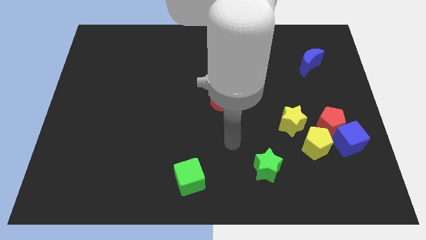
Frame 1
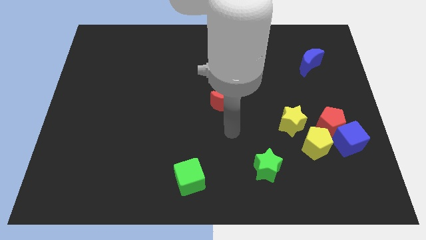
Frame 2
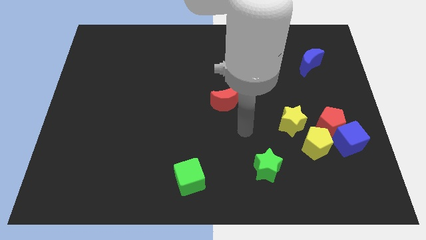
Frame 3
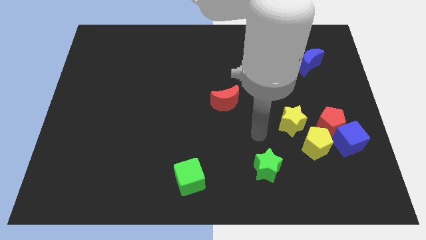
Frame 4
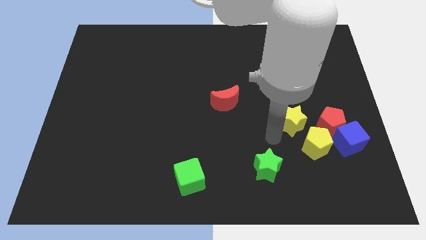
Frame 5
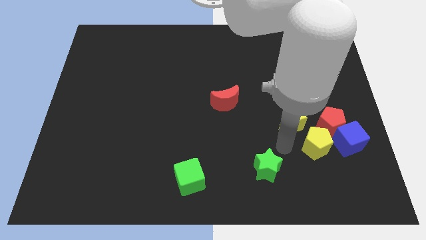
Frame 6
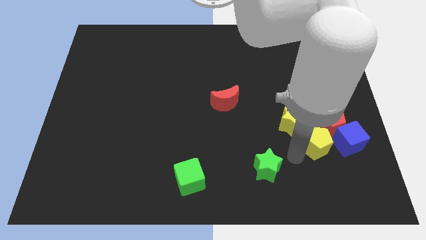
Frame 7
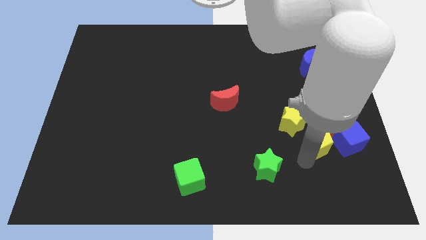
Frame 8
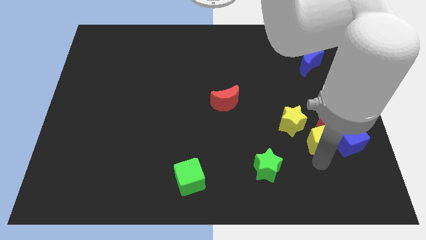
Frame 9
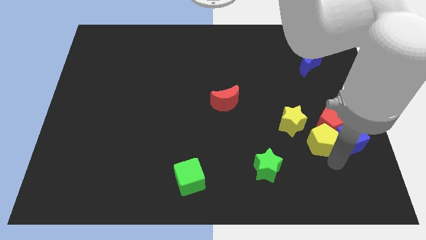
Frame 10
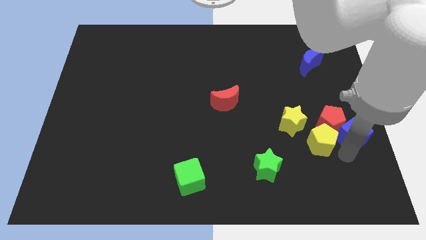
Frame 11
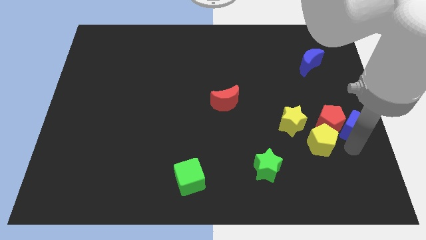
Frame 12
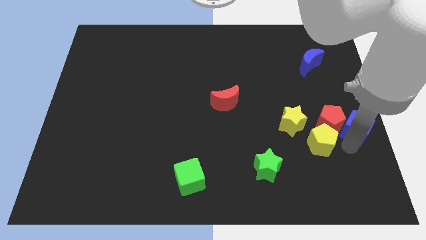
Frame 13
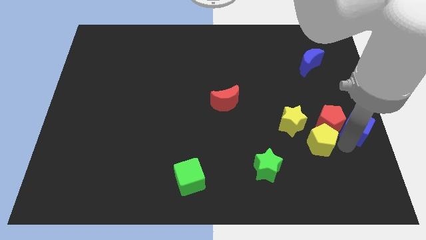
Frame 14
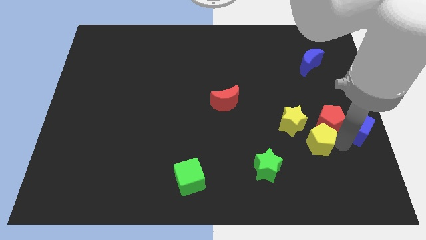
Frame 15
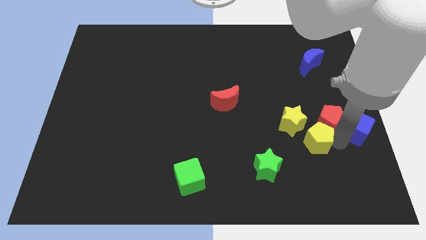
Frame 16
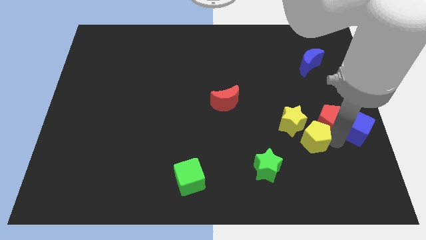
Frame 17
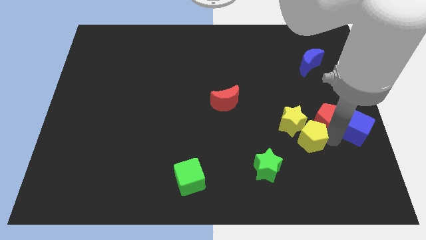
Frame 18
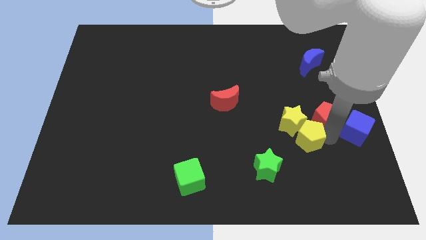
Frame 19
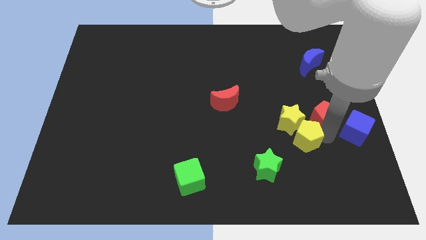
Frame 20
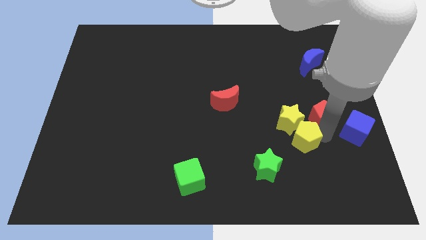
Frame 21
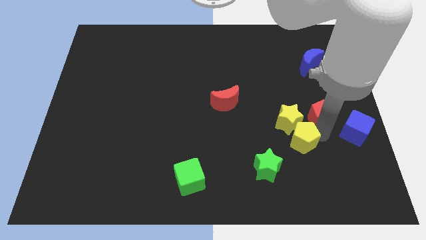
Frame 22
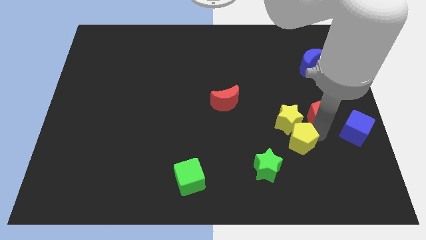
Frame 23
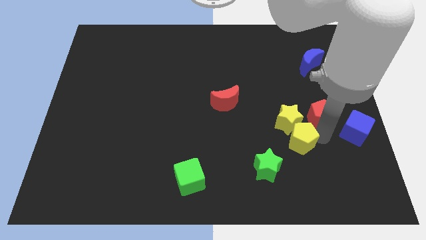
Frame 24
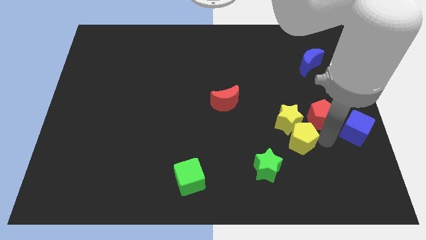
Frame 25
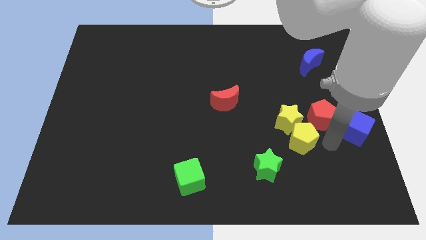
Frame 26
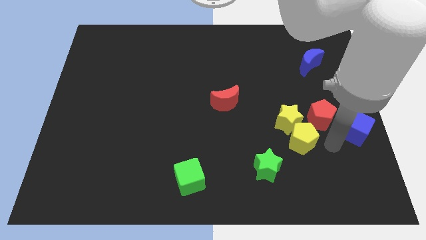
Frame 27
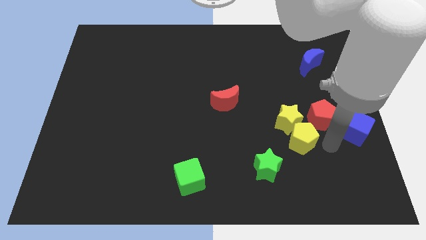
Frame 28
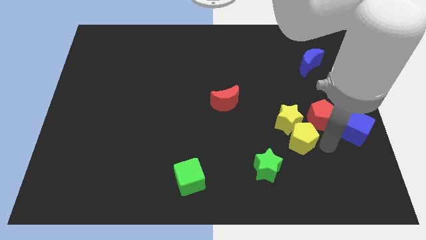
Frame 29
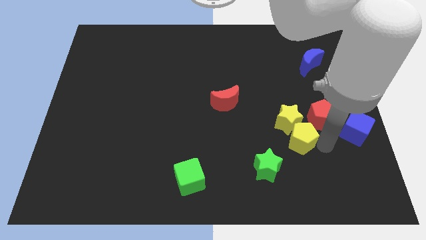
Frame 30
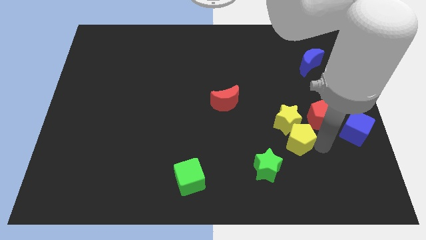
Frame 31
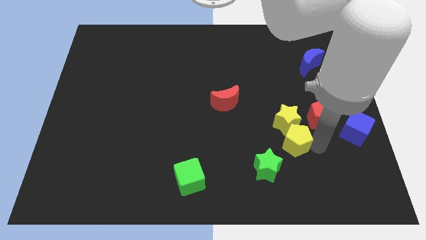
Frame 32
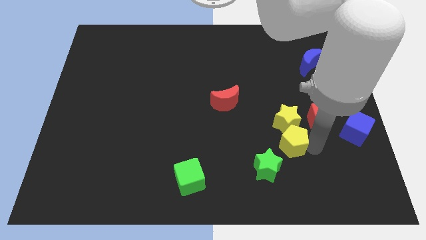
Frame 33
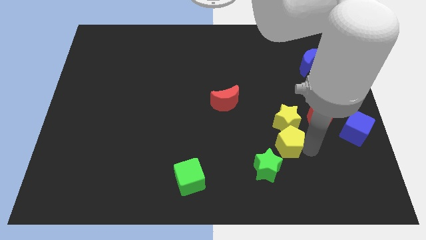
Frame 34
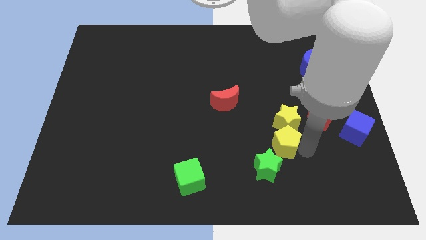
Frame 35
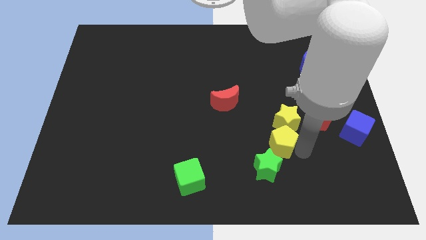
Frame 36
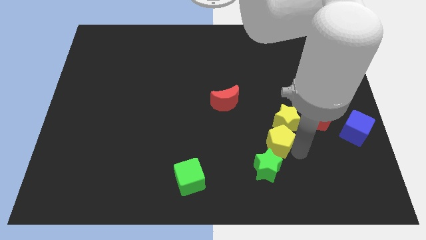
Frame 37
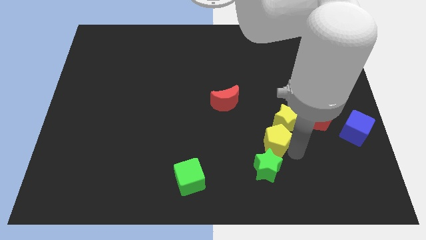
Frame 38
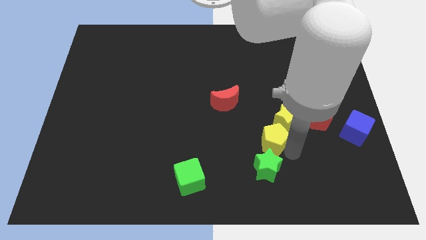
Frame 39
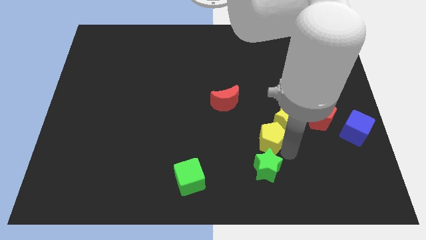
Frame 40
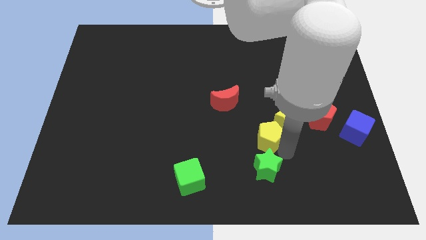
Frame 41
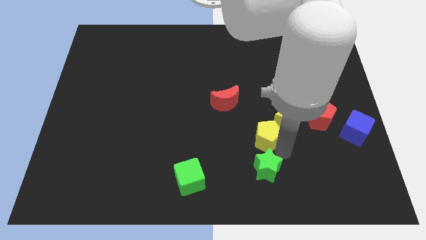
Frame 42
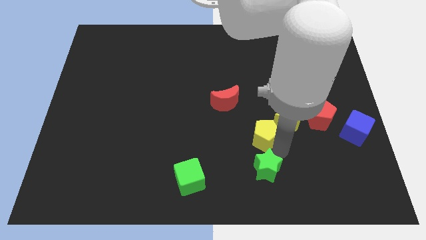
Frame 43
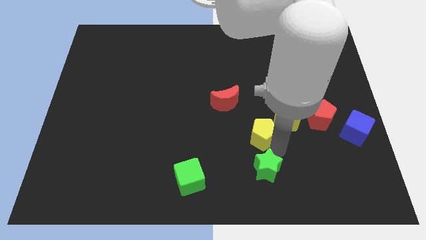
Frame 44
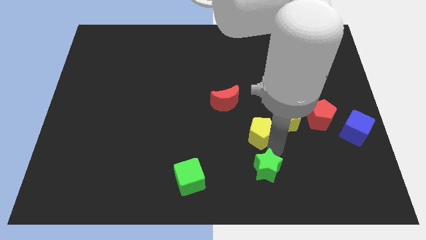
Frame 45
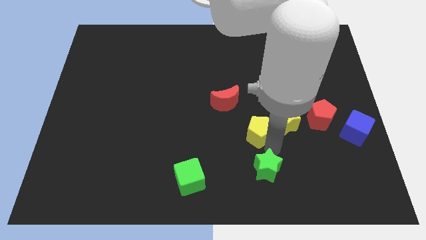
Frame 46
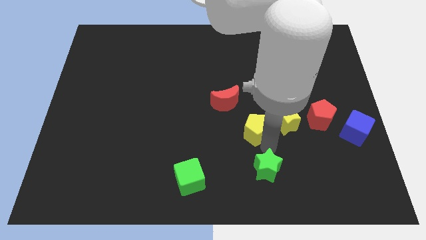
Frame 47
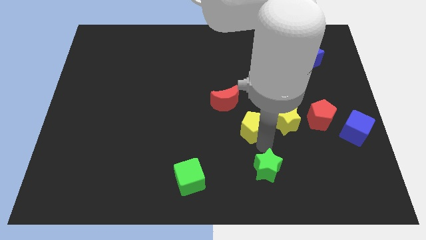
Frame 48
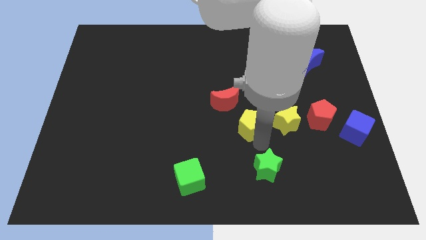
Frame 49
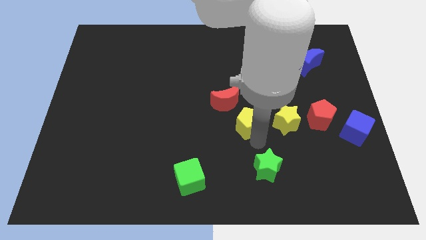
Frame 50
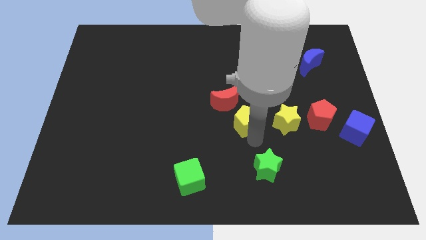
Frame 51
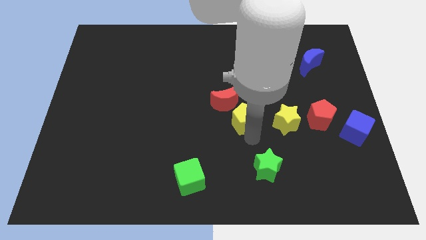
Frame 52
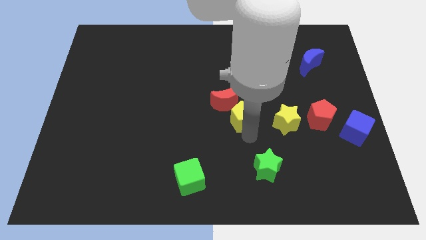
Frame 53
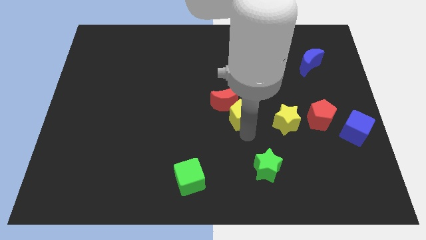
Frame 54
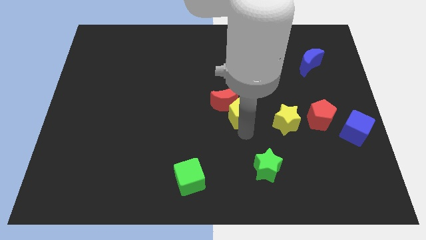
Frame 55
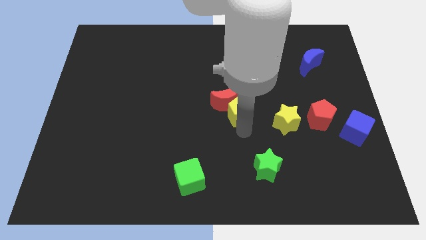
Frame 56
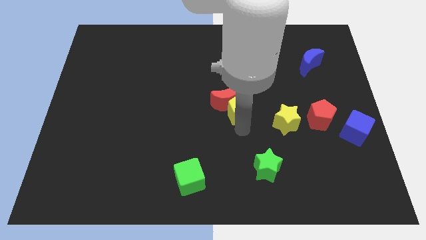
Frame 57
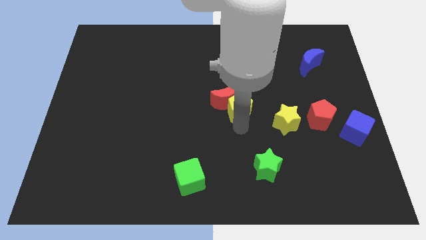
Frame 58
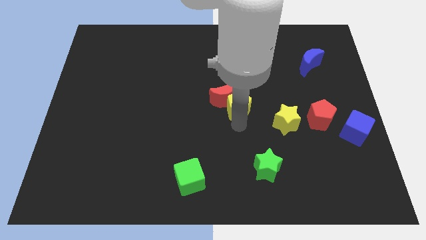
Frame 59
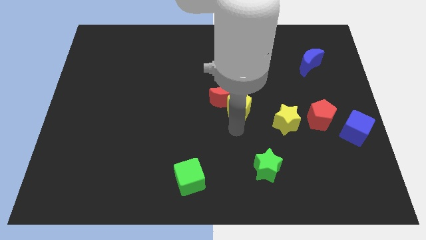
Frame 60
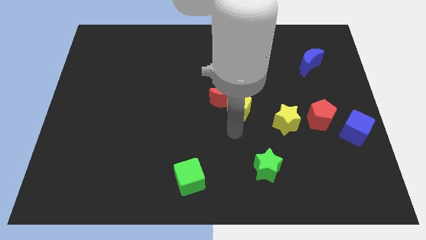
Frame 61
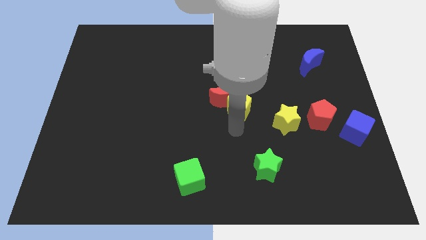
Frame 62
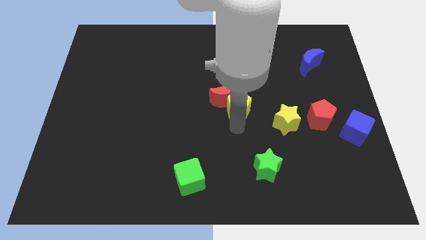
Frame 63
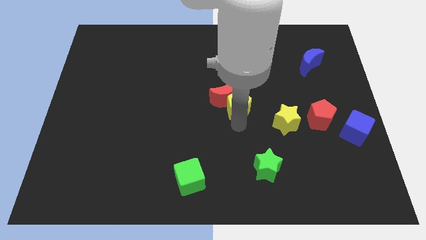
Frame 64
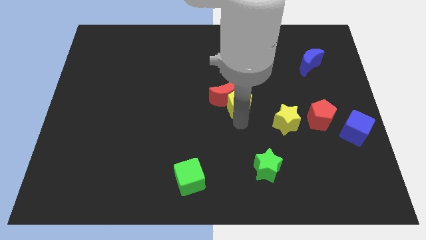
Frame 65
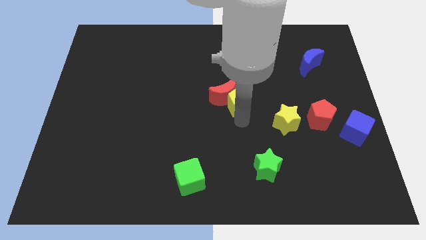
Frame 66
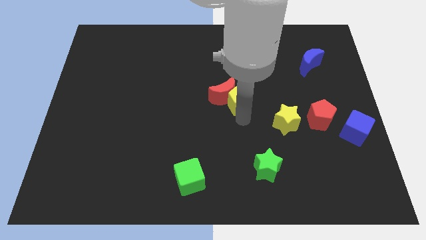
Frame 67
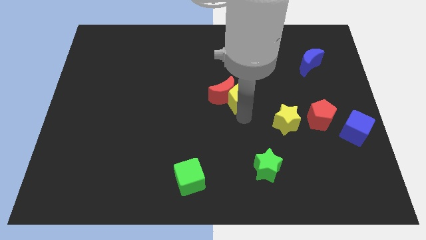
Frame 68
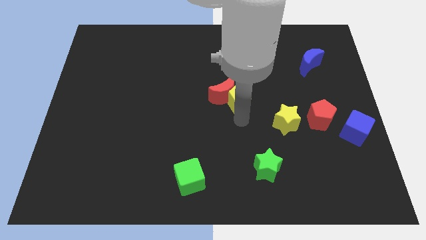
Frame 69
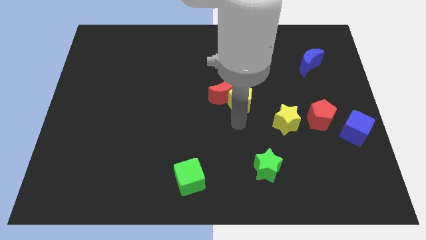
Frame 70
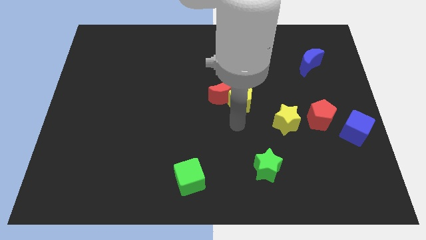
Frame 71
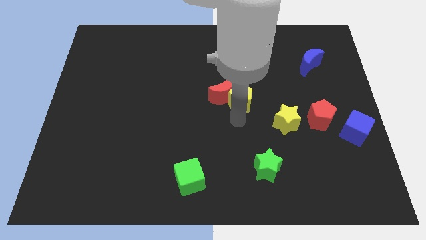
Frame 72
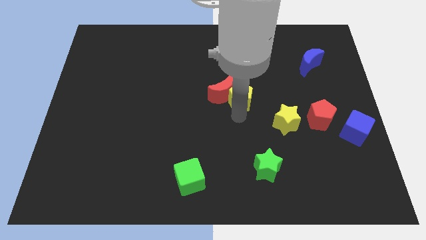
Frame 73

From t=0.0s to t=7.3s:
push the yellow pentagon up and to the left diagonally

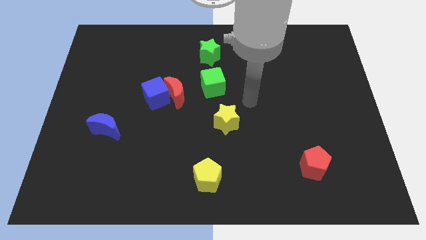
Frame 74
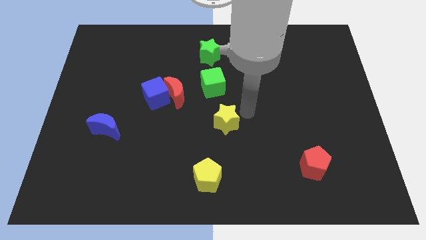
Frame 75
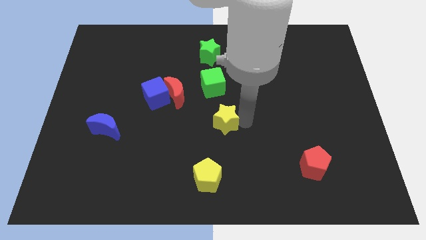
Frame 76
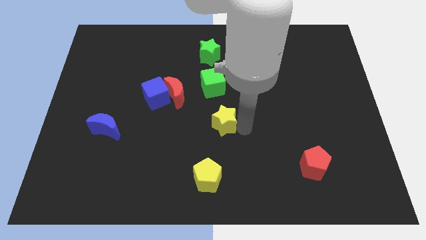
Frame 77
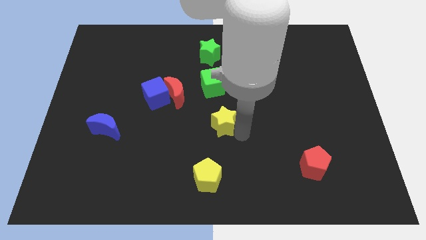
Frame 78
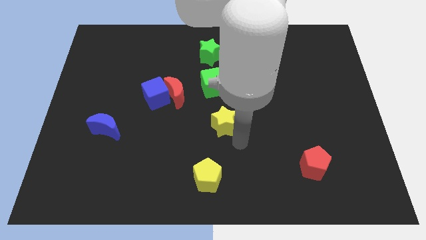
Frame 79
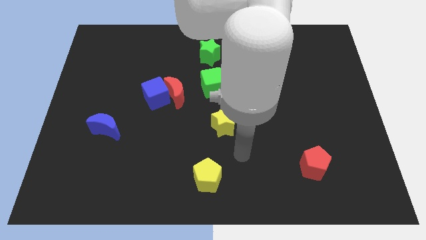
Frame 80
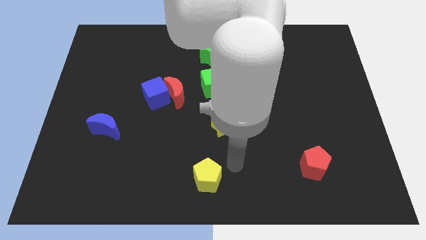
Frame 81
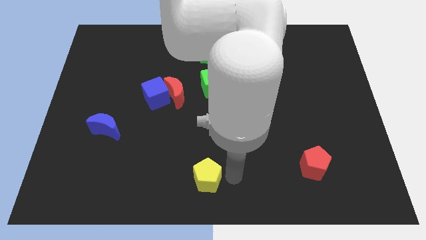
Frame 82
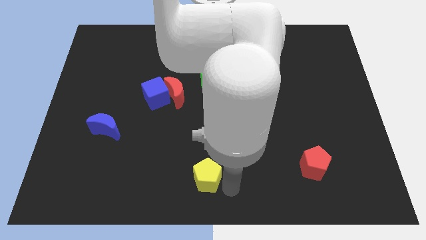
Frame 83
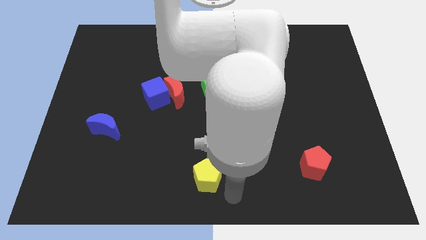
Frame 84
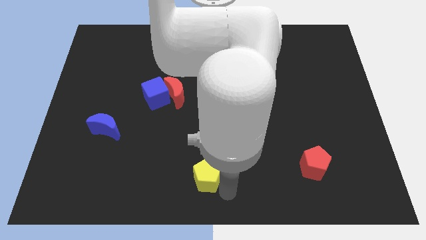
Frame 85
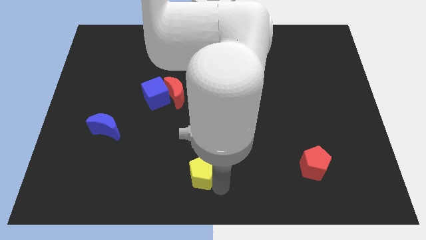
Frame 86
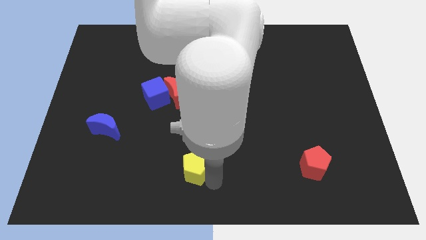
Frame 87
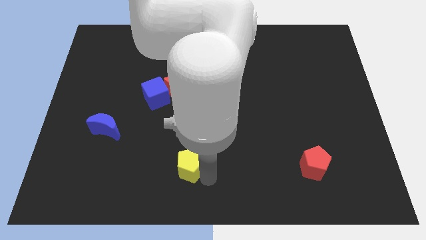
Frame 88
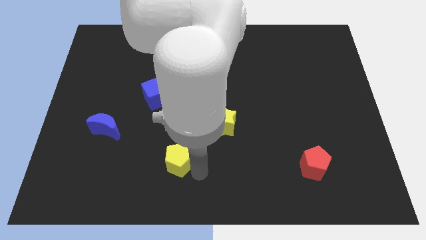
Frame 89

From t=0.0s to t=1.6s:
slide the yellow pentagon upwards and then left a bit
